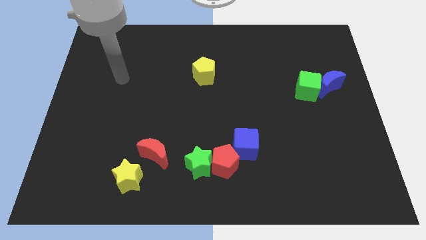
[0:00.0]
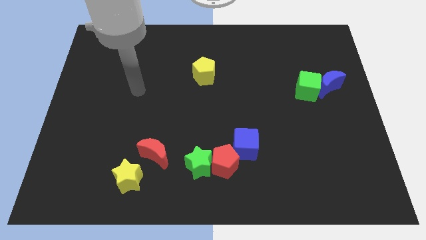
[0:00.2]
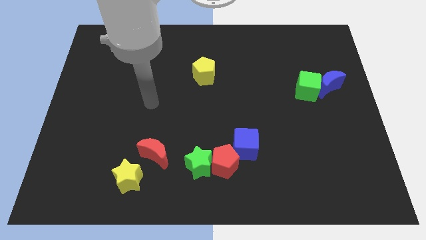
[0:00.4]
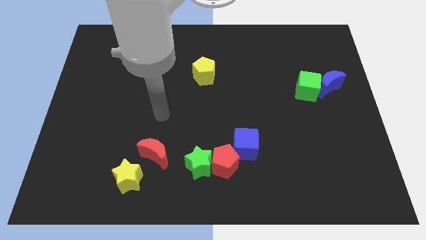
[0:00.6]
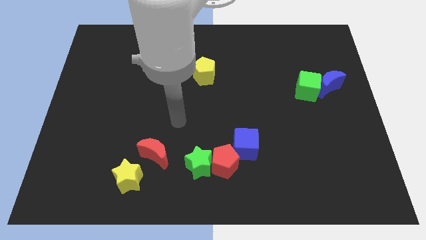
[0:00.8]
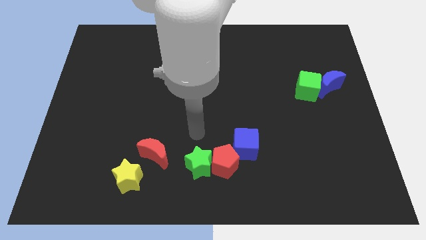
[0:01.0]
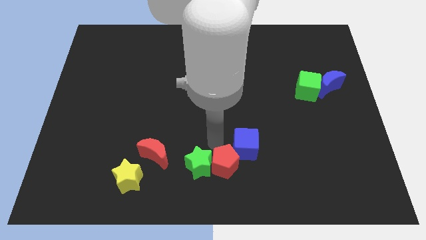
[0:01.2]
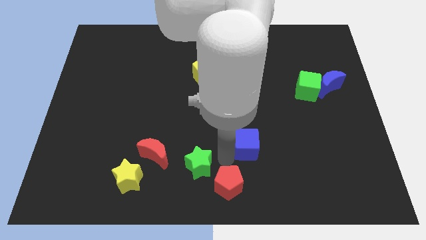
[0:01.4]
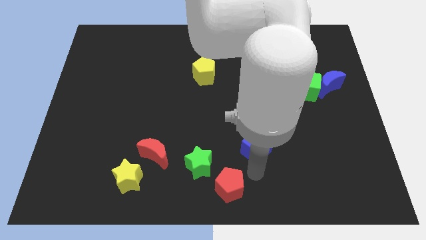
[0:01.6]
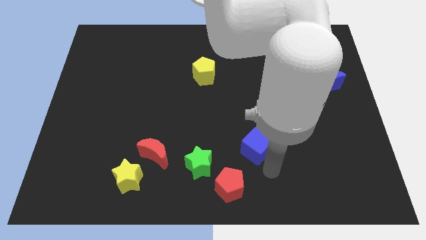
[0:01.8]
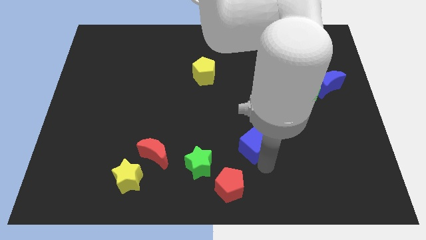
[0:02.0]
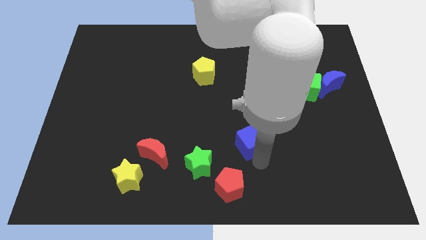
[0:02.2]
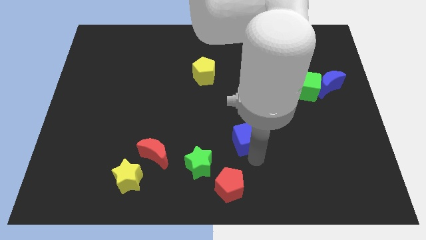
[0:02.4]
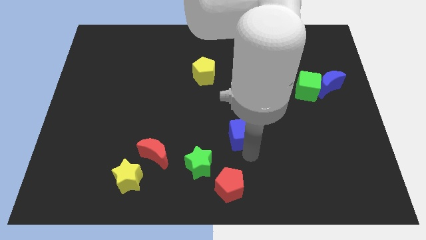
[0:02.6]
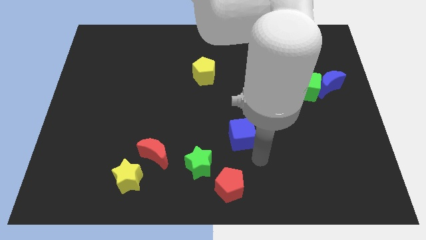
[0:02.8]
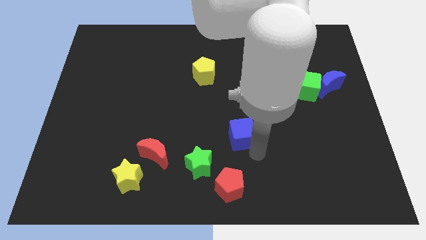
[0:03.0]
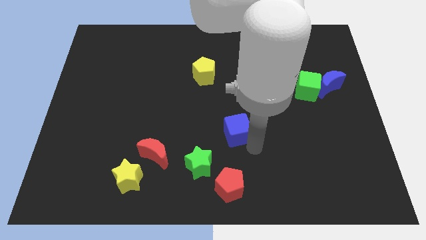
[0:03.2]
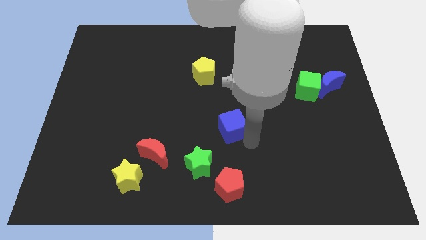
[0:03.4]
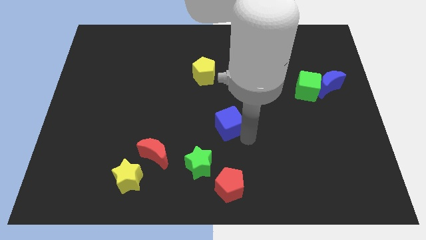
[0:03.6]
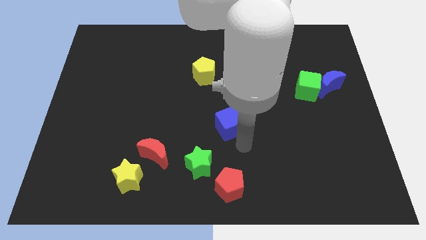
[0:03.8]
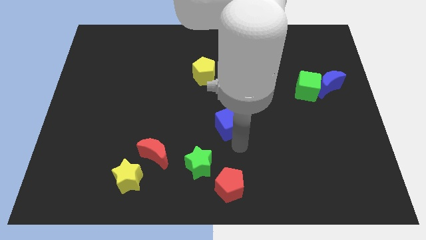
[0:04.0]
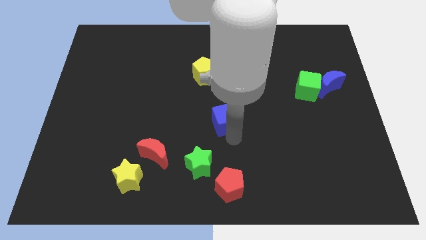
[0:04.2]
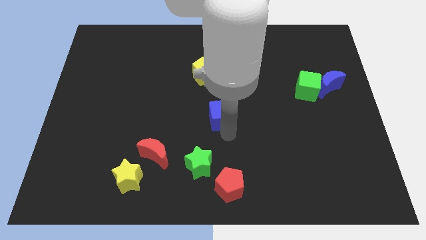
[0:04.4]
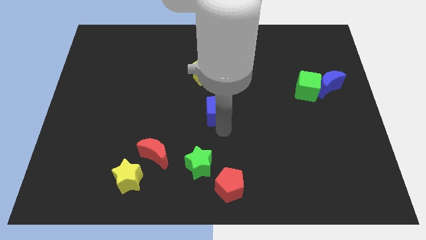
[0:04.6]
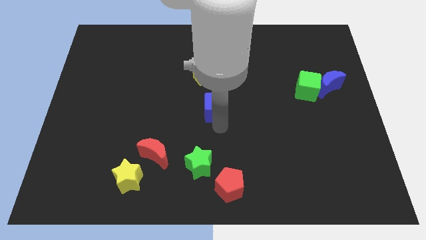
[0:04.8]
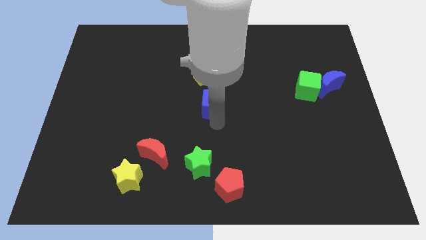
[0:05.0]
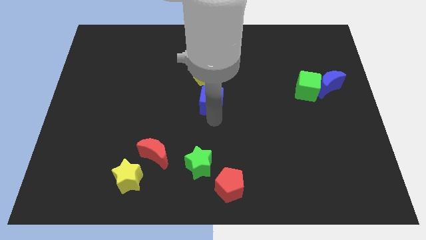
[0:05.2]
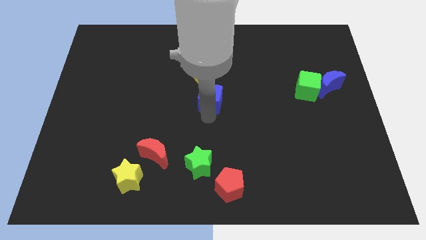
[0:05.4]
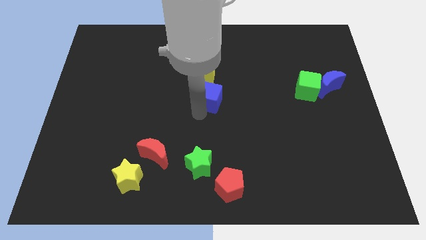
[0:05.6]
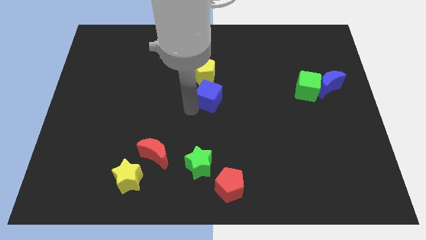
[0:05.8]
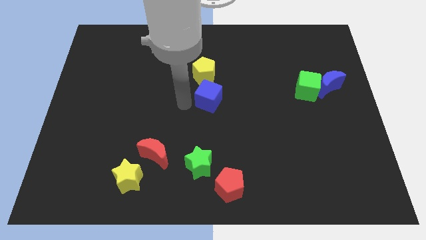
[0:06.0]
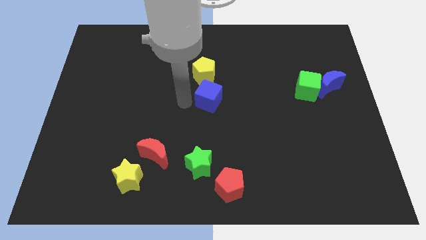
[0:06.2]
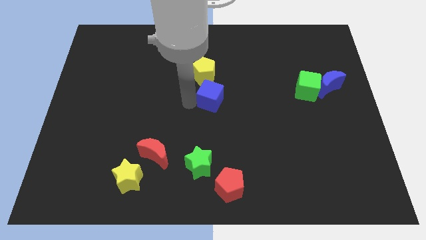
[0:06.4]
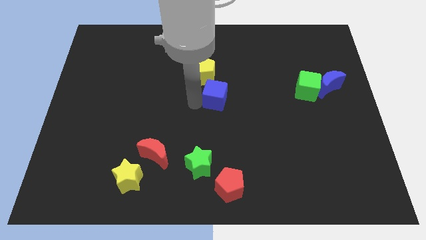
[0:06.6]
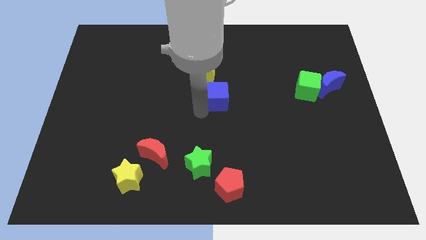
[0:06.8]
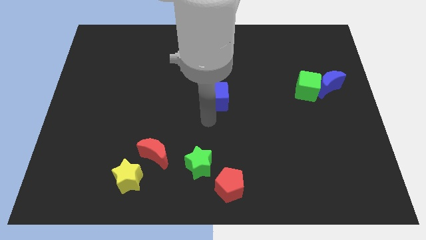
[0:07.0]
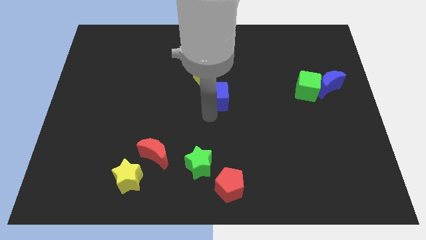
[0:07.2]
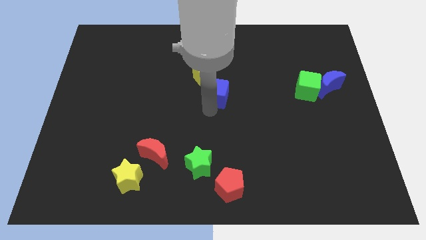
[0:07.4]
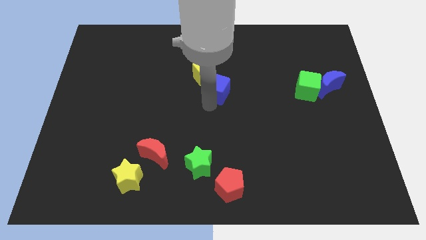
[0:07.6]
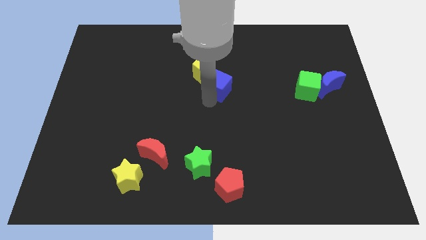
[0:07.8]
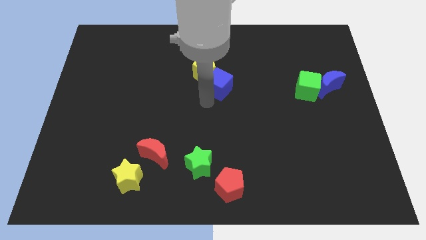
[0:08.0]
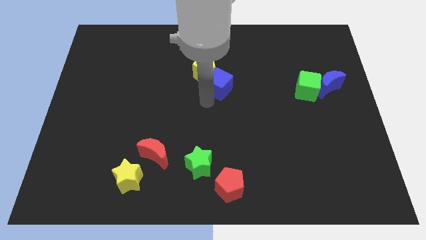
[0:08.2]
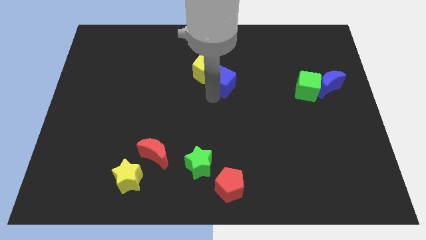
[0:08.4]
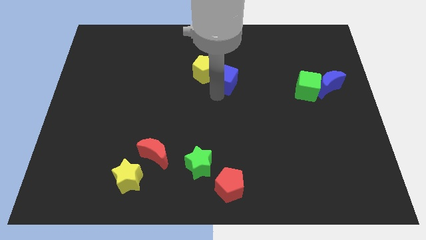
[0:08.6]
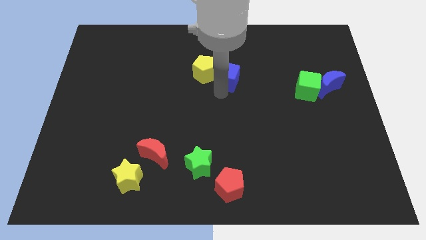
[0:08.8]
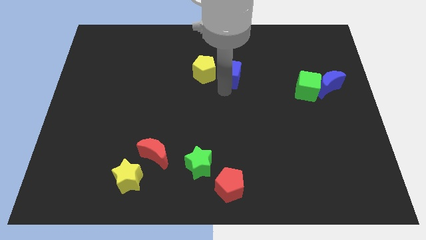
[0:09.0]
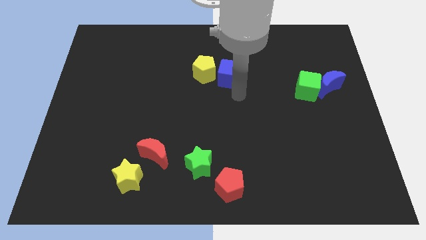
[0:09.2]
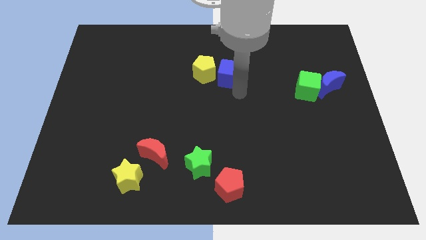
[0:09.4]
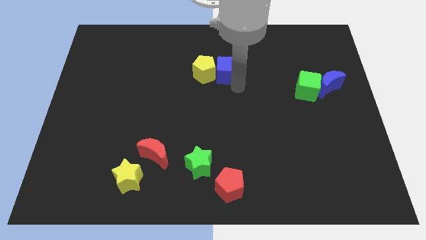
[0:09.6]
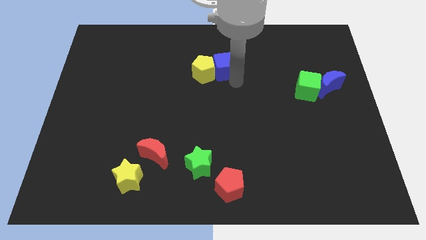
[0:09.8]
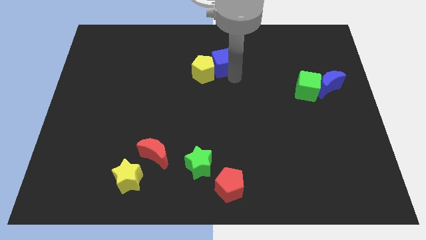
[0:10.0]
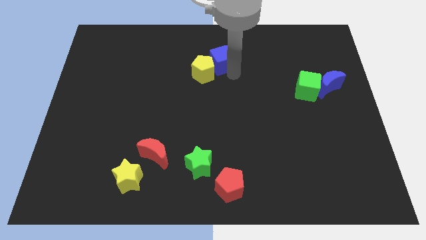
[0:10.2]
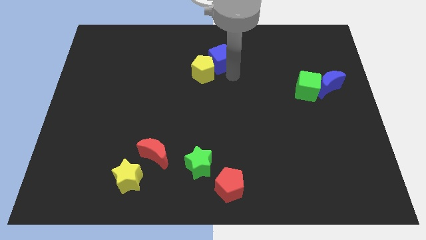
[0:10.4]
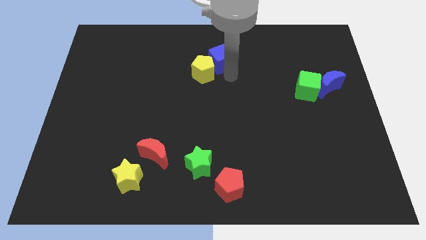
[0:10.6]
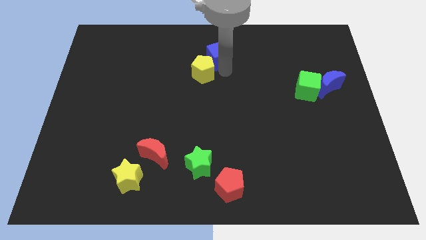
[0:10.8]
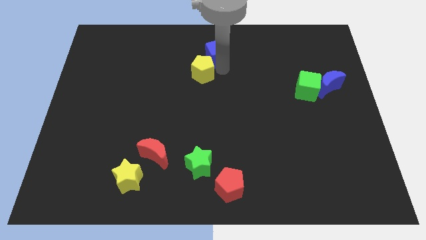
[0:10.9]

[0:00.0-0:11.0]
move the blue cube to the top
